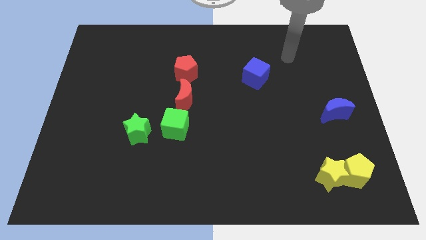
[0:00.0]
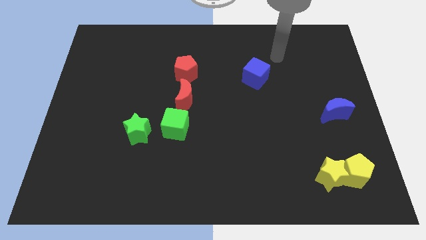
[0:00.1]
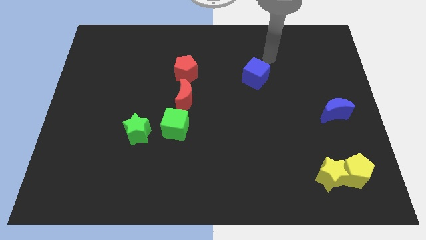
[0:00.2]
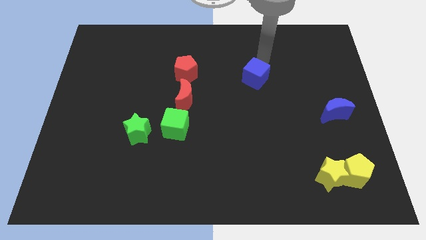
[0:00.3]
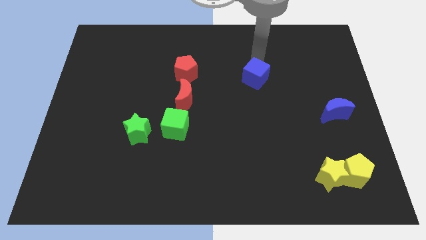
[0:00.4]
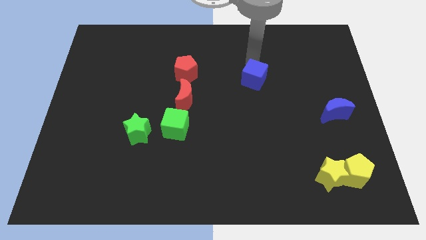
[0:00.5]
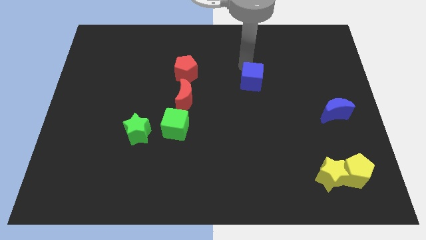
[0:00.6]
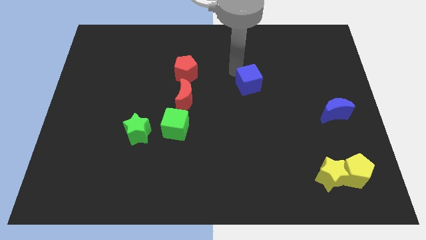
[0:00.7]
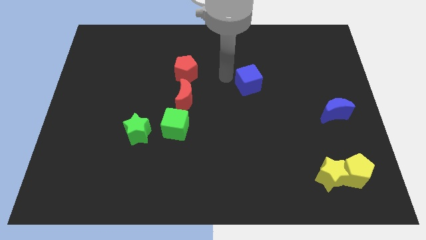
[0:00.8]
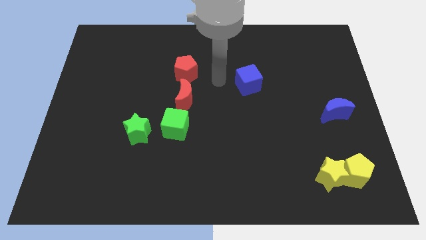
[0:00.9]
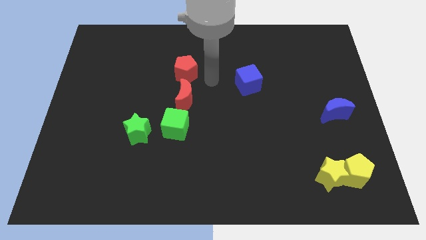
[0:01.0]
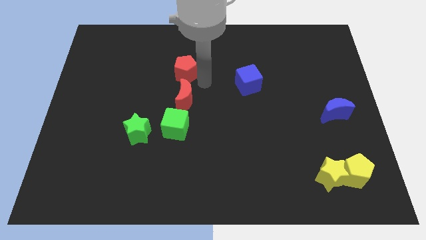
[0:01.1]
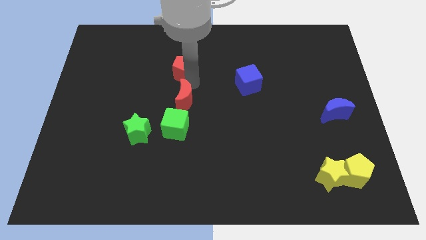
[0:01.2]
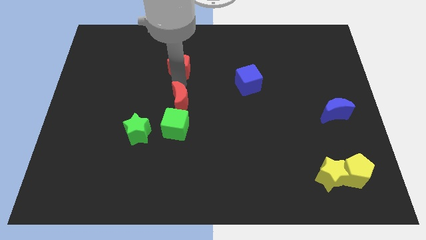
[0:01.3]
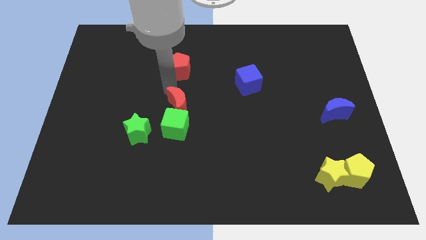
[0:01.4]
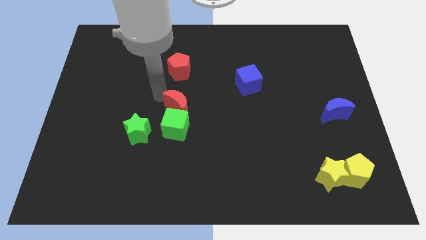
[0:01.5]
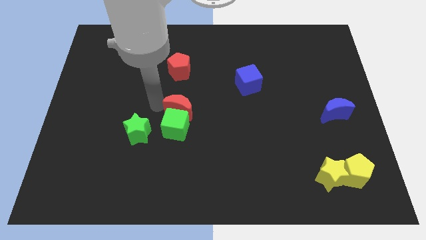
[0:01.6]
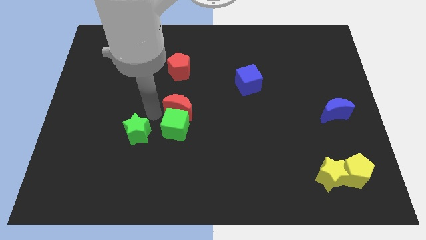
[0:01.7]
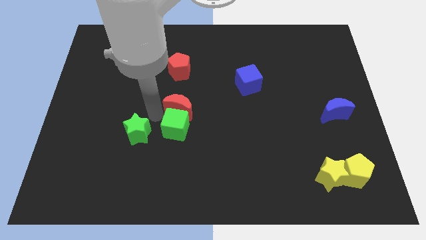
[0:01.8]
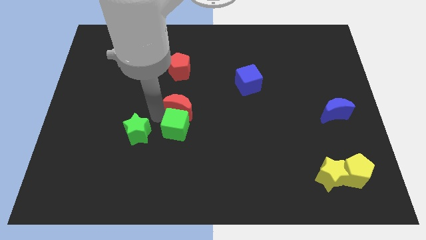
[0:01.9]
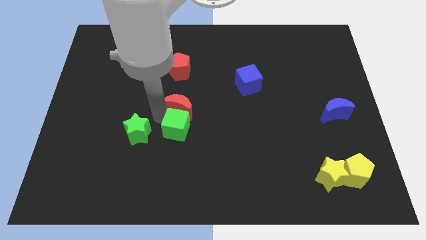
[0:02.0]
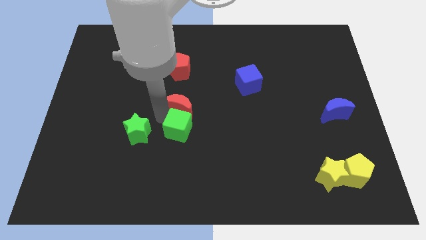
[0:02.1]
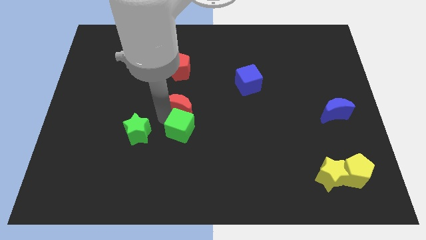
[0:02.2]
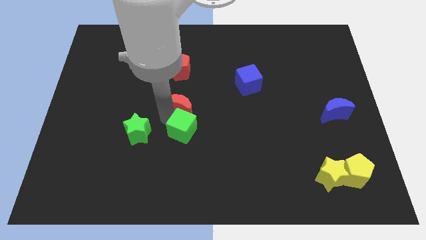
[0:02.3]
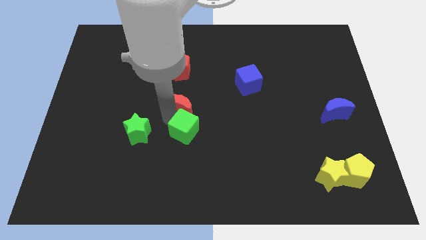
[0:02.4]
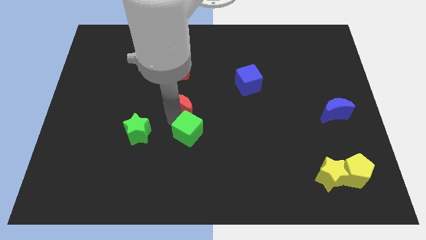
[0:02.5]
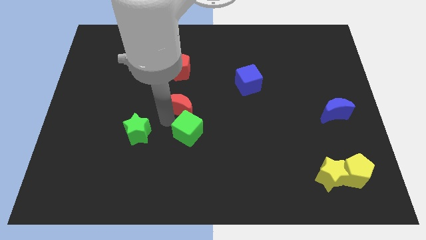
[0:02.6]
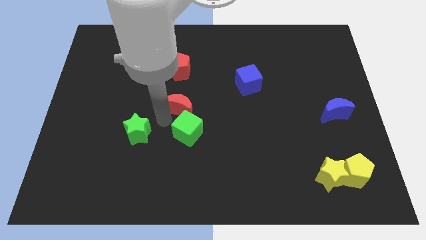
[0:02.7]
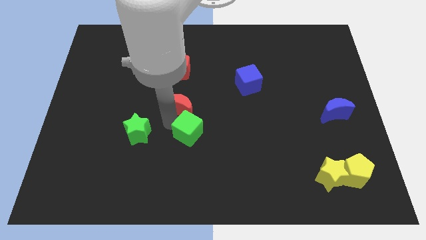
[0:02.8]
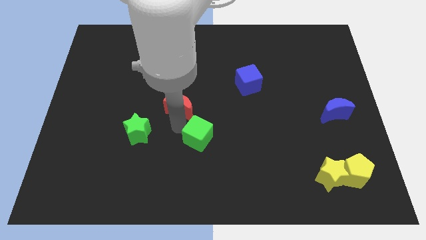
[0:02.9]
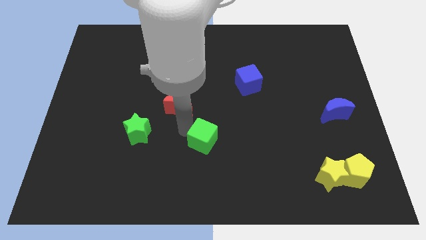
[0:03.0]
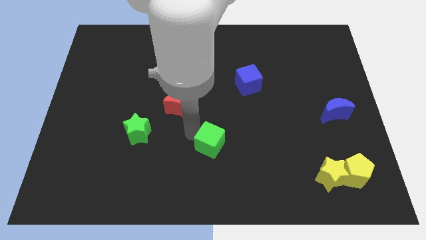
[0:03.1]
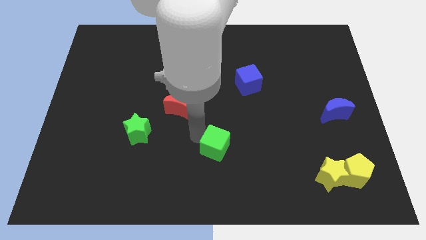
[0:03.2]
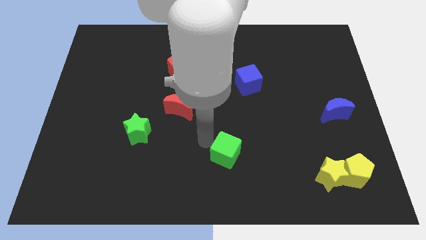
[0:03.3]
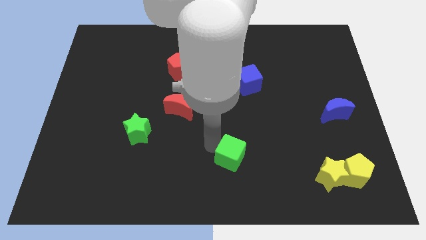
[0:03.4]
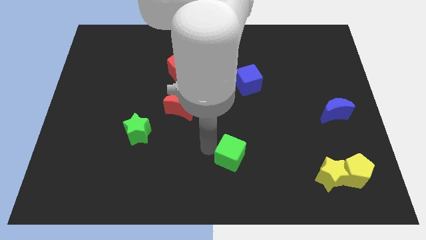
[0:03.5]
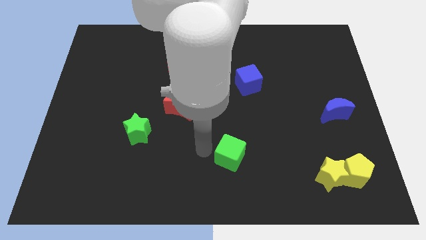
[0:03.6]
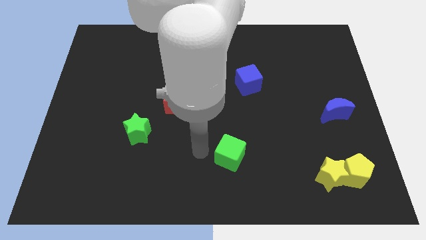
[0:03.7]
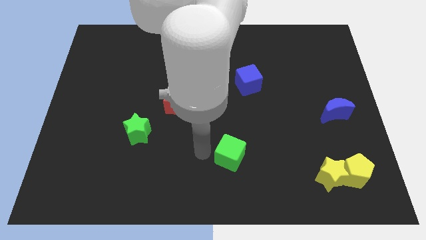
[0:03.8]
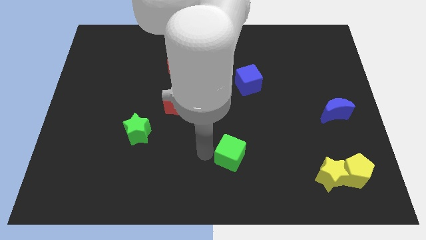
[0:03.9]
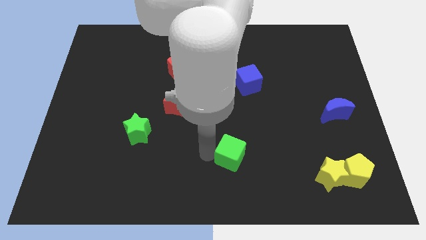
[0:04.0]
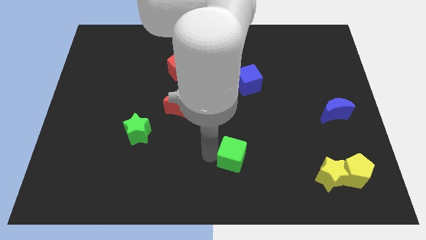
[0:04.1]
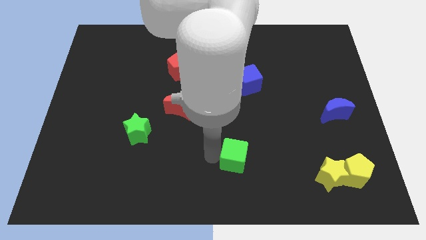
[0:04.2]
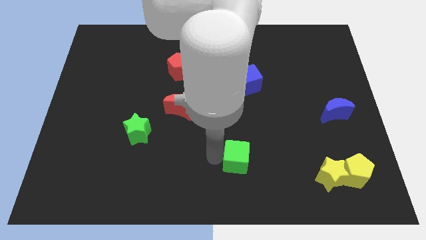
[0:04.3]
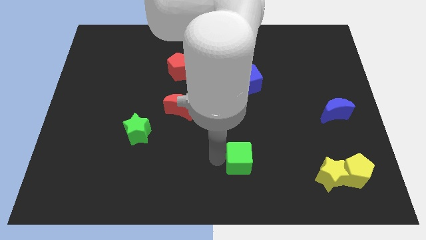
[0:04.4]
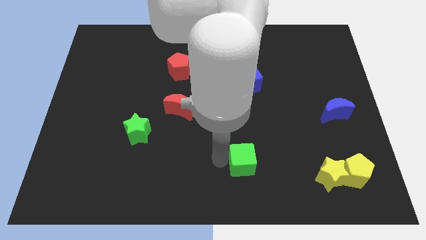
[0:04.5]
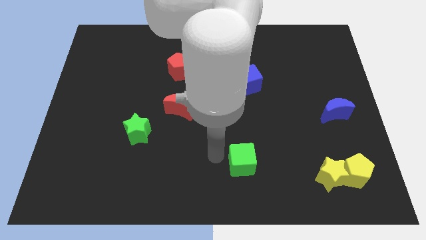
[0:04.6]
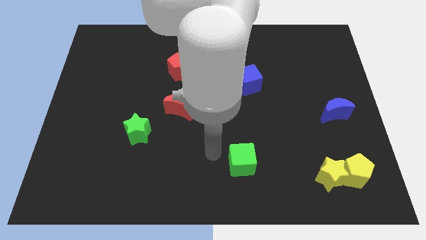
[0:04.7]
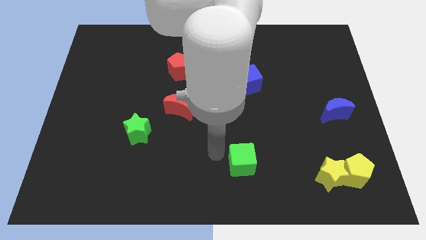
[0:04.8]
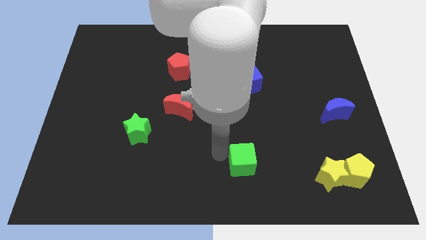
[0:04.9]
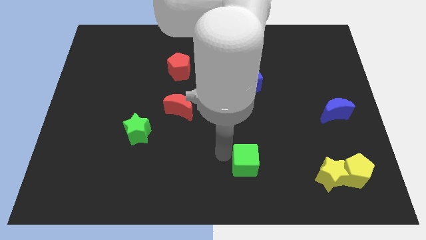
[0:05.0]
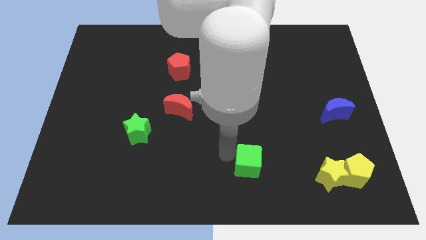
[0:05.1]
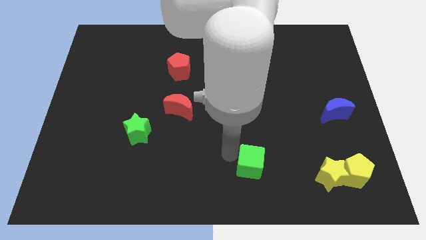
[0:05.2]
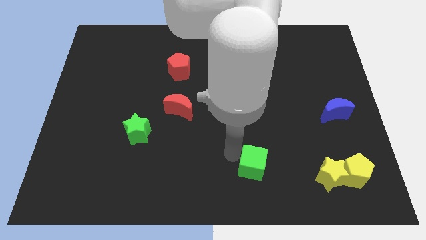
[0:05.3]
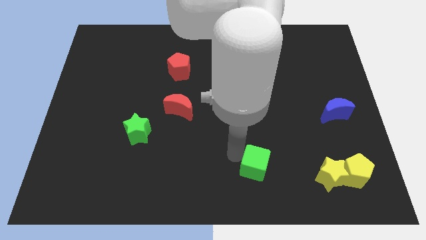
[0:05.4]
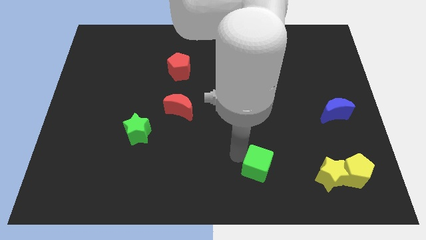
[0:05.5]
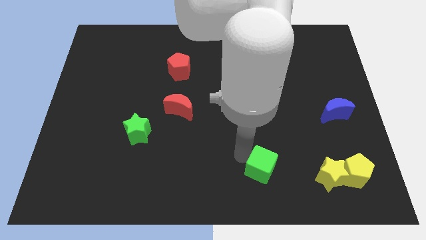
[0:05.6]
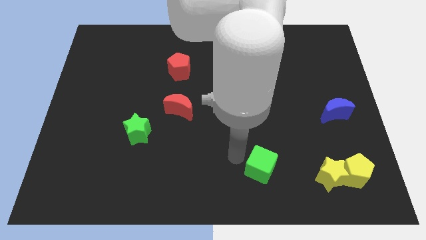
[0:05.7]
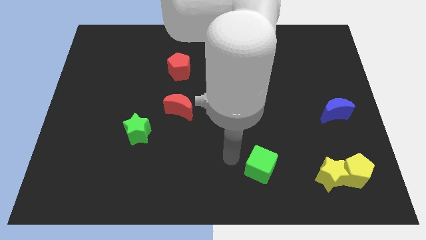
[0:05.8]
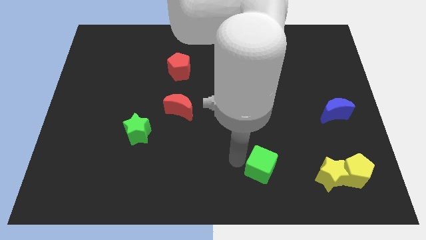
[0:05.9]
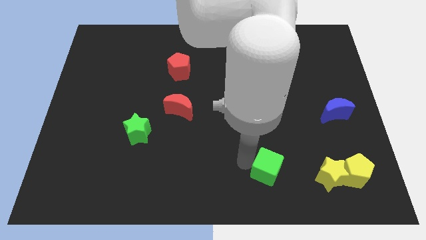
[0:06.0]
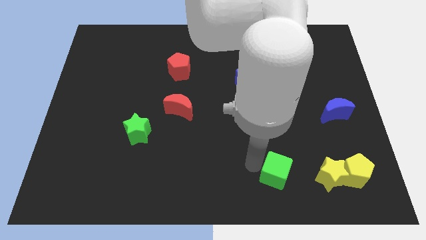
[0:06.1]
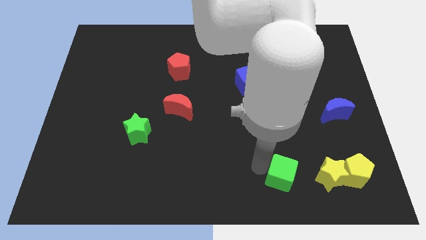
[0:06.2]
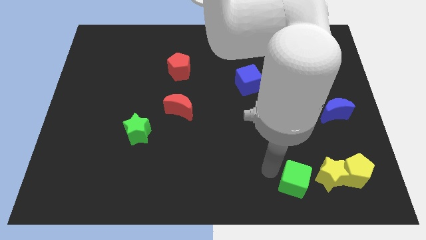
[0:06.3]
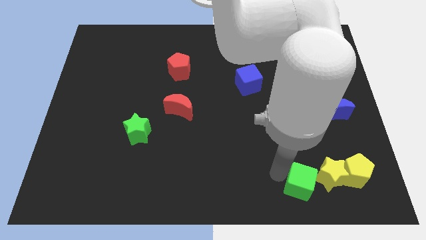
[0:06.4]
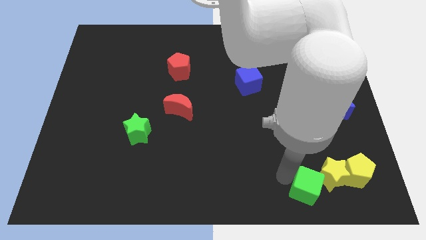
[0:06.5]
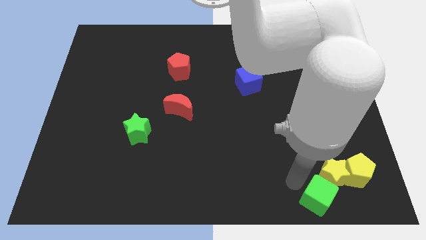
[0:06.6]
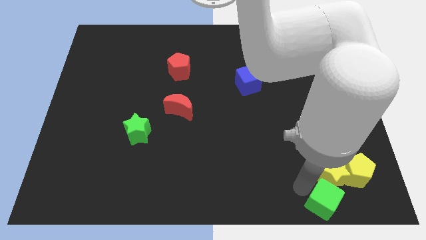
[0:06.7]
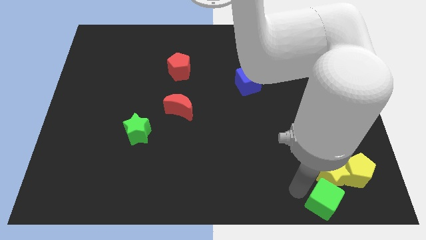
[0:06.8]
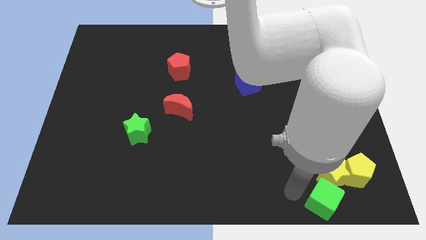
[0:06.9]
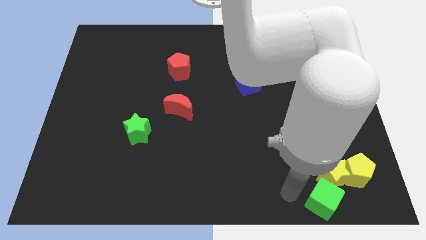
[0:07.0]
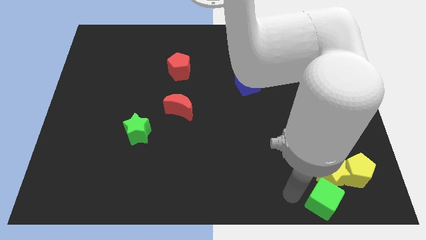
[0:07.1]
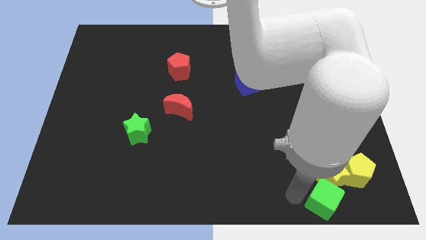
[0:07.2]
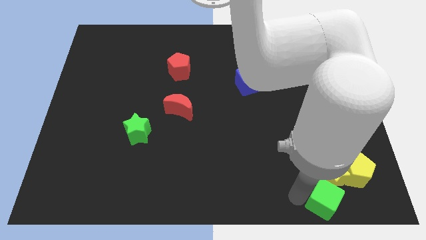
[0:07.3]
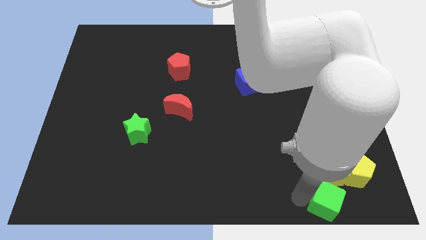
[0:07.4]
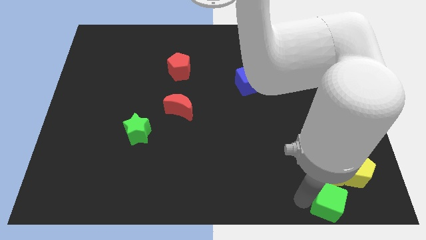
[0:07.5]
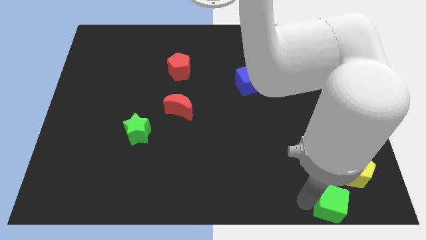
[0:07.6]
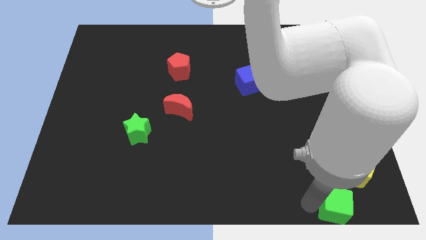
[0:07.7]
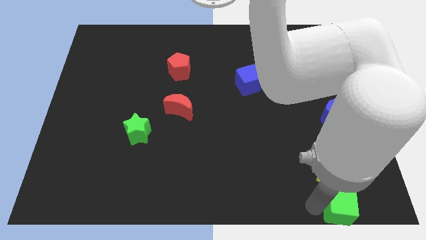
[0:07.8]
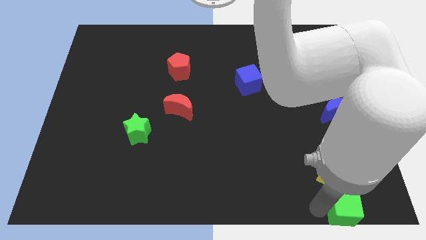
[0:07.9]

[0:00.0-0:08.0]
move the green cube to the bottom right of the board
